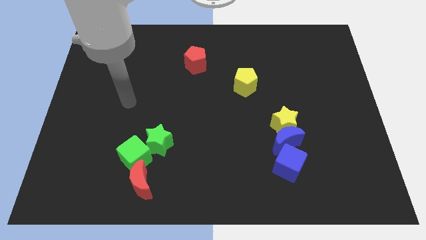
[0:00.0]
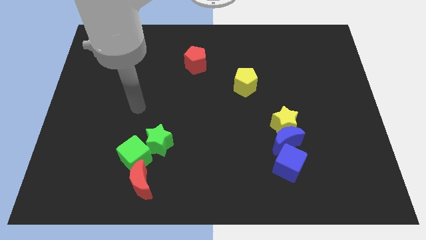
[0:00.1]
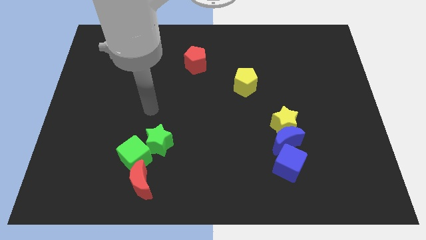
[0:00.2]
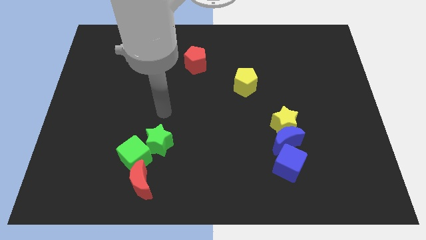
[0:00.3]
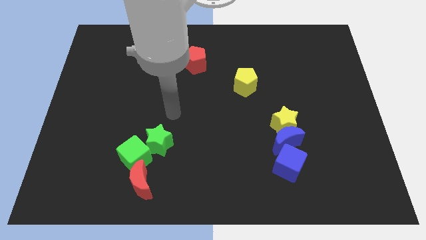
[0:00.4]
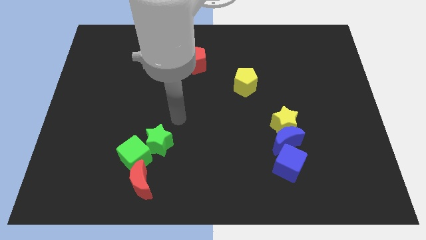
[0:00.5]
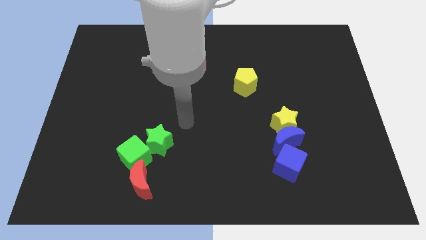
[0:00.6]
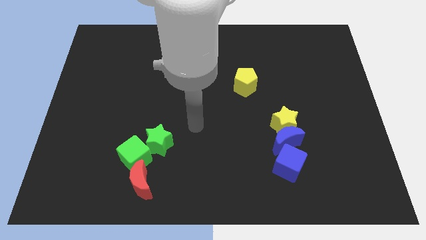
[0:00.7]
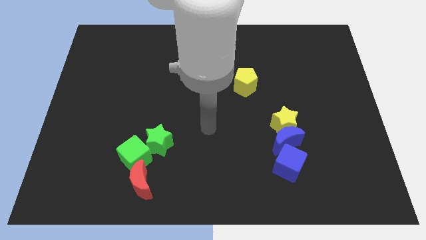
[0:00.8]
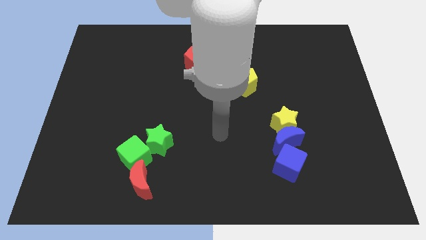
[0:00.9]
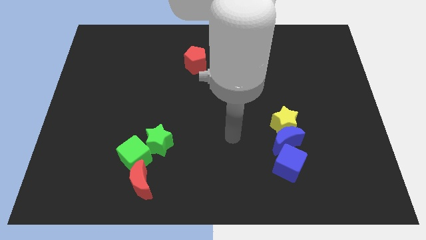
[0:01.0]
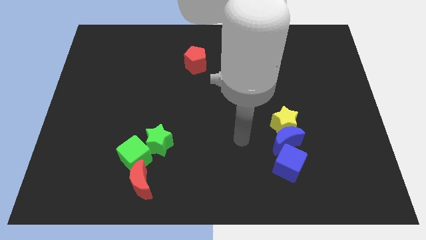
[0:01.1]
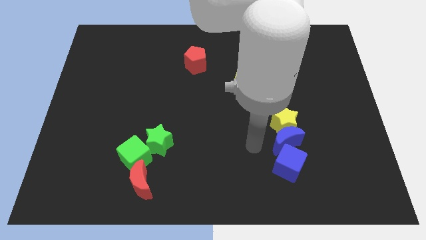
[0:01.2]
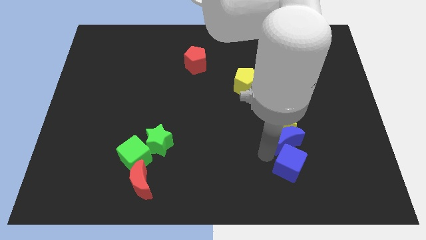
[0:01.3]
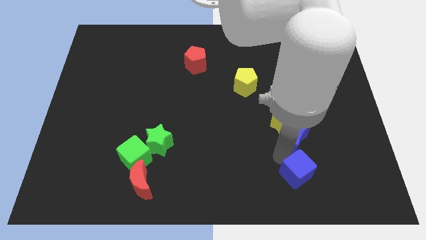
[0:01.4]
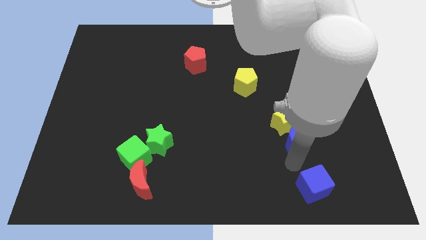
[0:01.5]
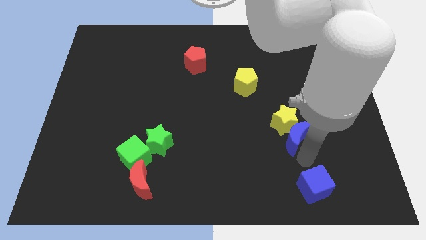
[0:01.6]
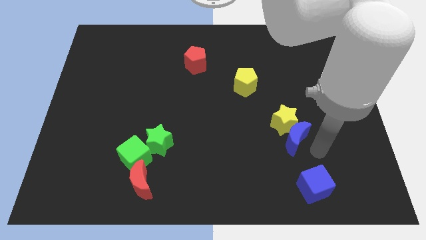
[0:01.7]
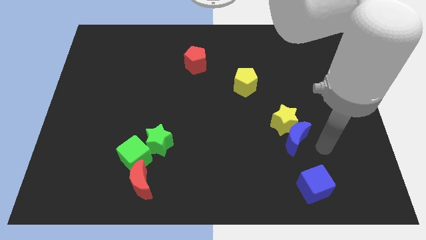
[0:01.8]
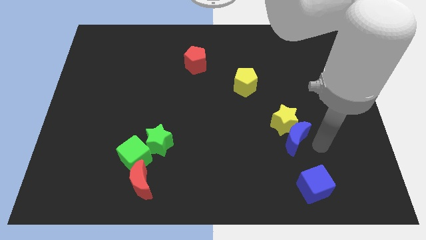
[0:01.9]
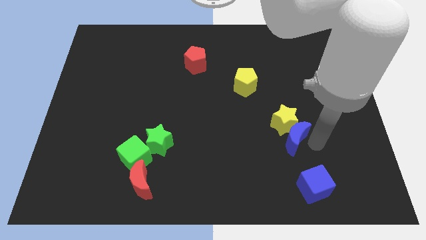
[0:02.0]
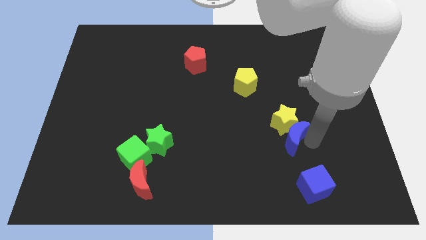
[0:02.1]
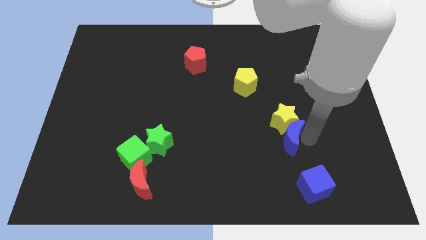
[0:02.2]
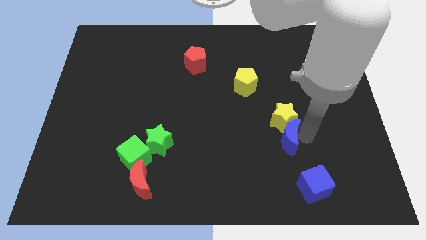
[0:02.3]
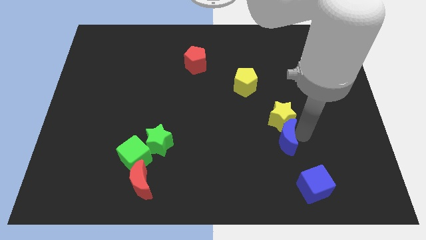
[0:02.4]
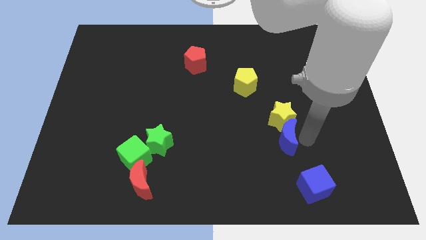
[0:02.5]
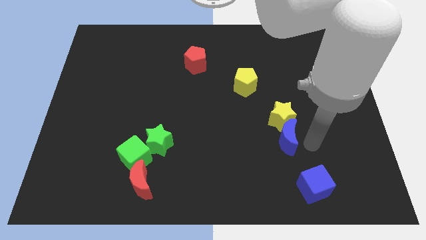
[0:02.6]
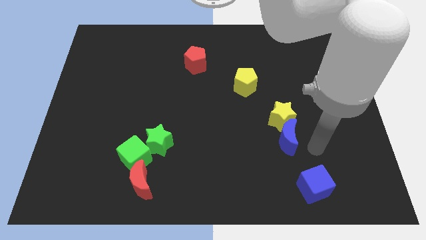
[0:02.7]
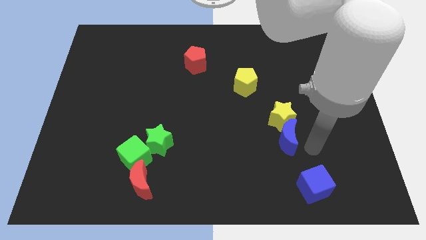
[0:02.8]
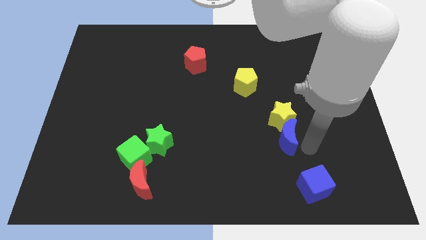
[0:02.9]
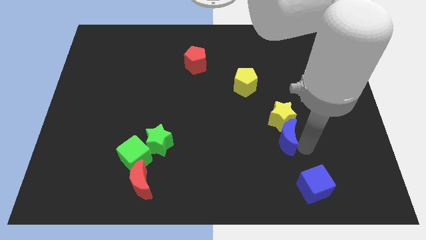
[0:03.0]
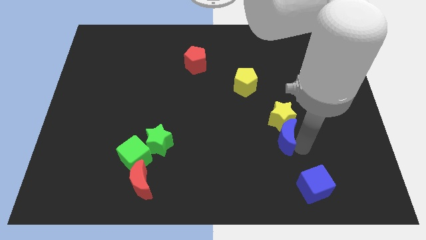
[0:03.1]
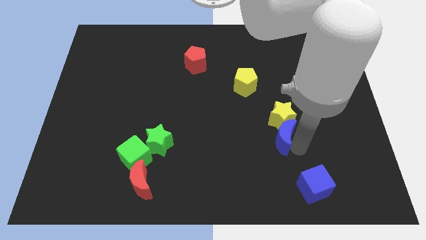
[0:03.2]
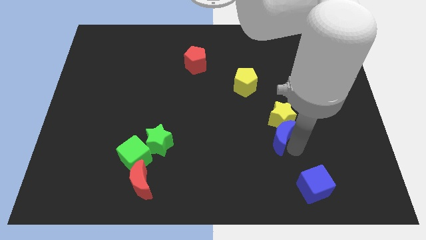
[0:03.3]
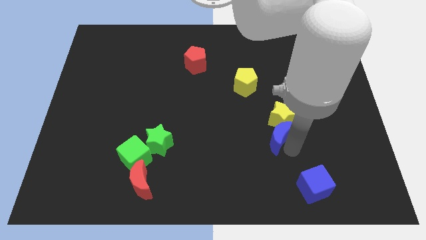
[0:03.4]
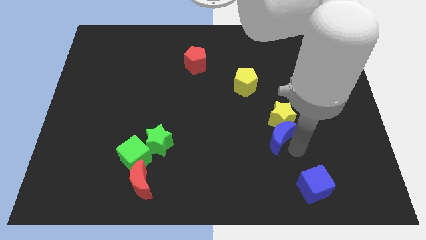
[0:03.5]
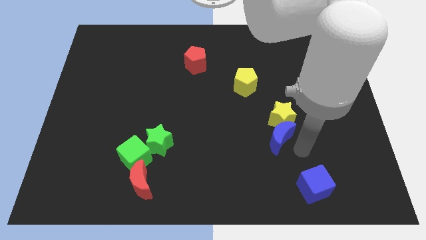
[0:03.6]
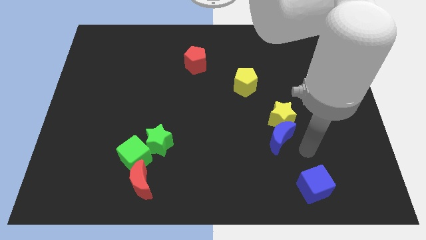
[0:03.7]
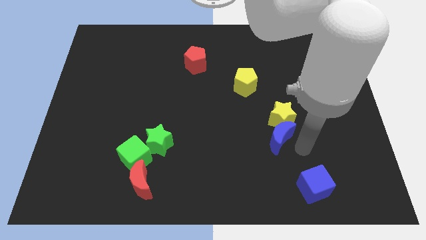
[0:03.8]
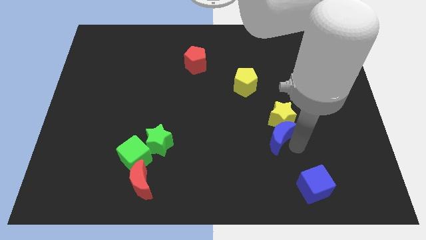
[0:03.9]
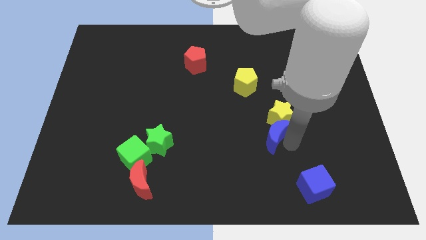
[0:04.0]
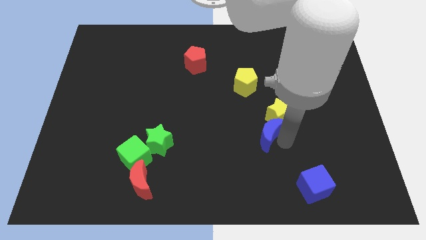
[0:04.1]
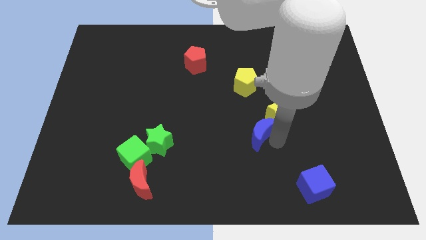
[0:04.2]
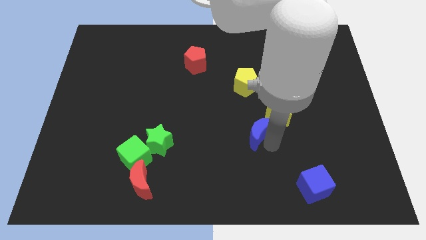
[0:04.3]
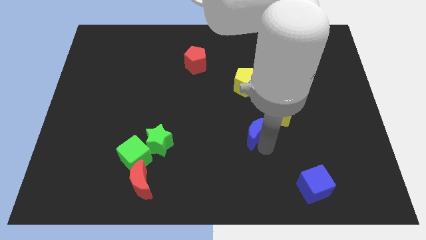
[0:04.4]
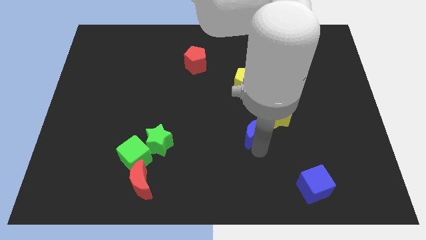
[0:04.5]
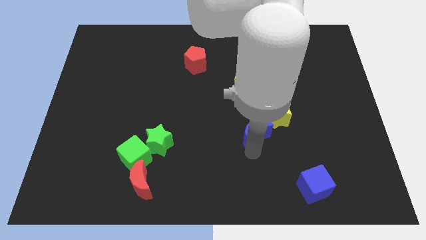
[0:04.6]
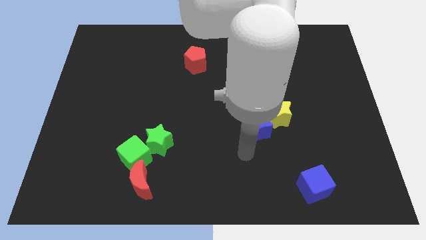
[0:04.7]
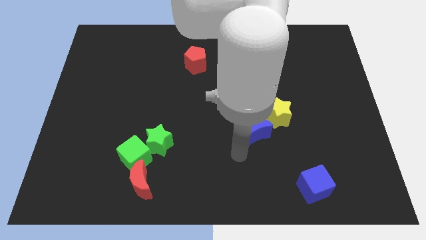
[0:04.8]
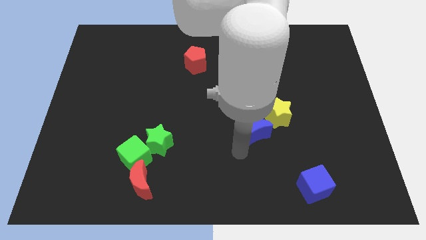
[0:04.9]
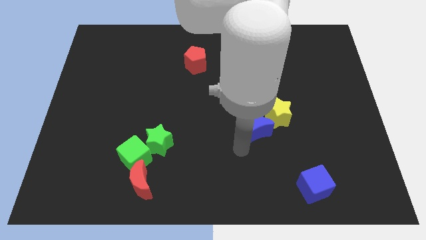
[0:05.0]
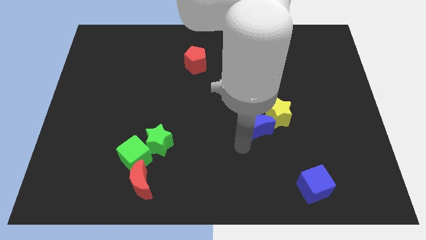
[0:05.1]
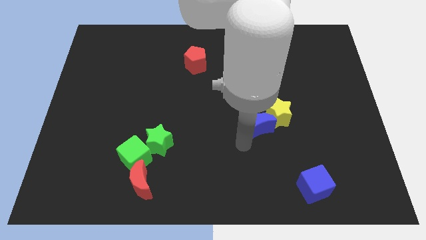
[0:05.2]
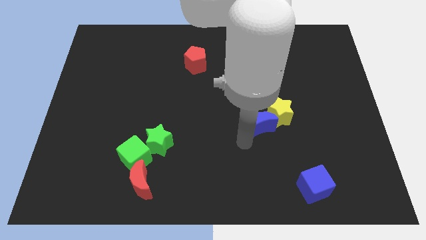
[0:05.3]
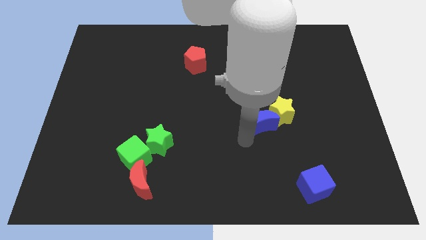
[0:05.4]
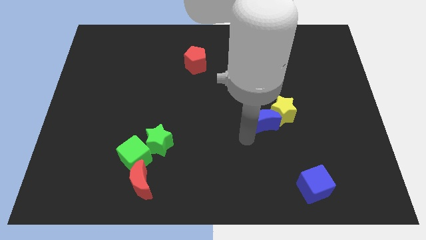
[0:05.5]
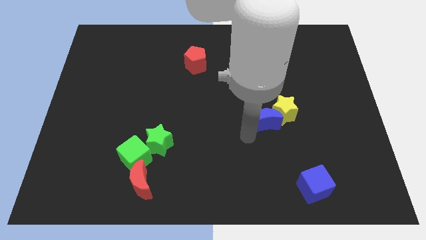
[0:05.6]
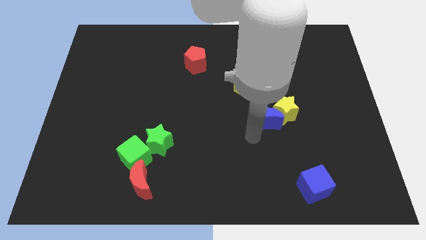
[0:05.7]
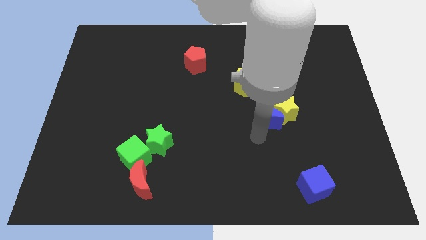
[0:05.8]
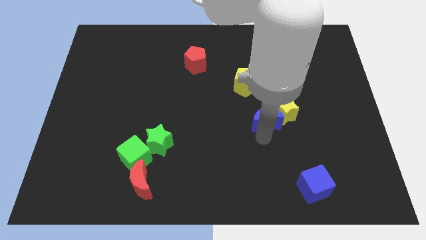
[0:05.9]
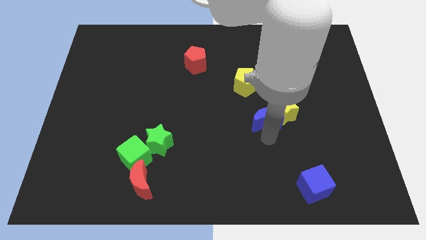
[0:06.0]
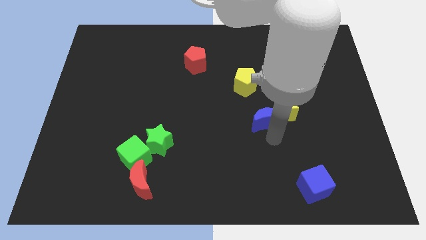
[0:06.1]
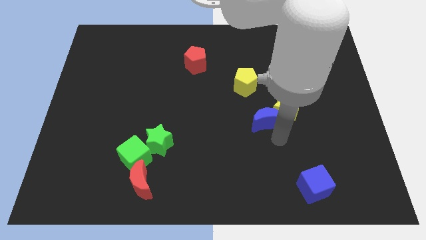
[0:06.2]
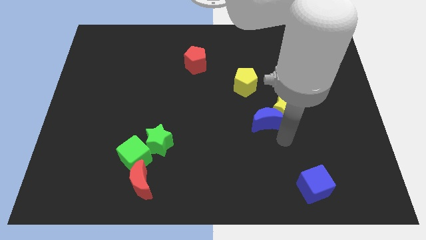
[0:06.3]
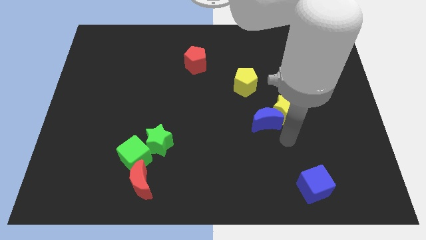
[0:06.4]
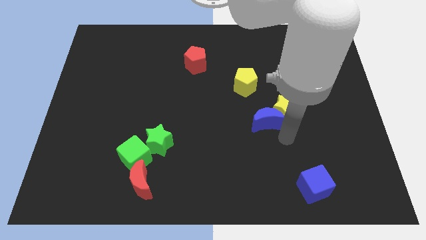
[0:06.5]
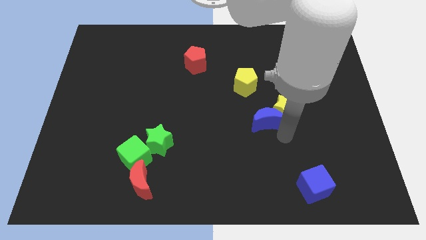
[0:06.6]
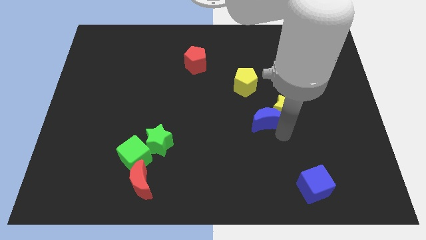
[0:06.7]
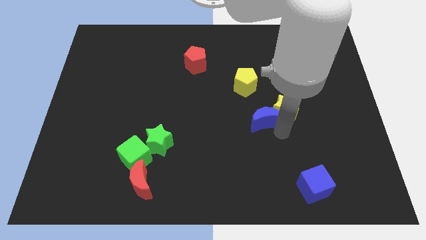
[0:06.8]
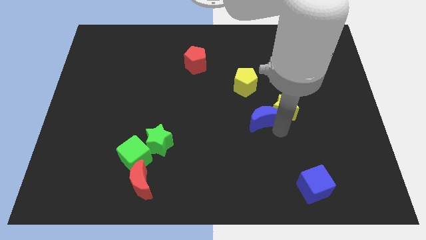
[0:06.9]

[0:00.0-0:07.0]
separate the blue moon from the yellow star and blue cube

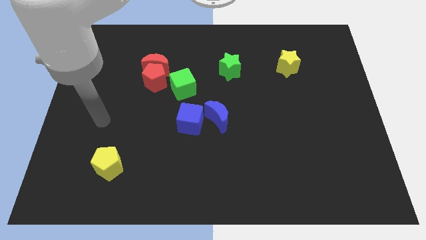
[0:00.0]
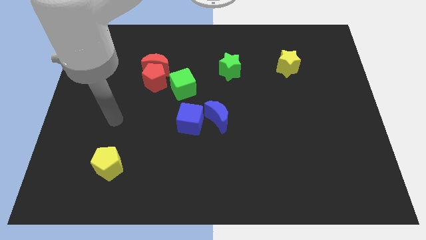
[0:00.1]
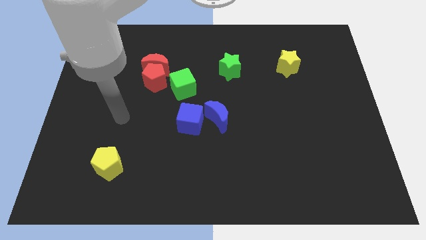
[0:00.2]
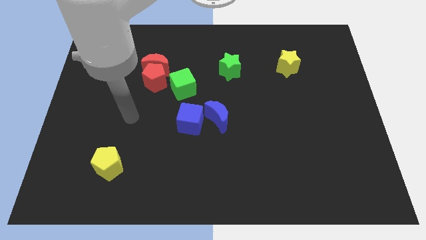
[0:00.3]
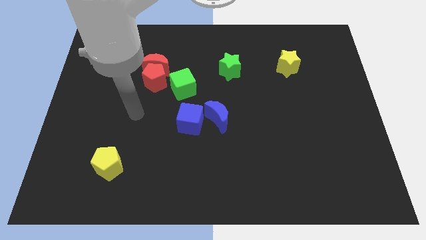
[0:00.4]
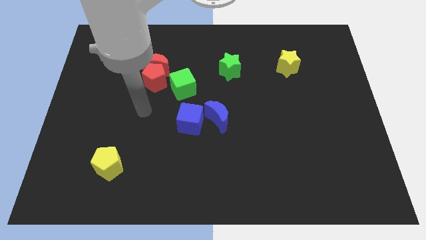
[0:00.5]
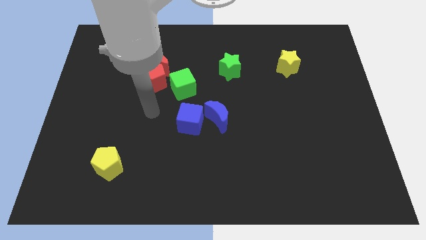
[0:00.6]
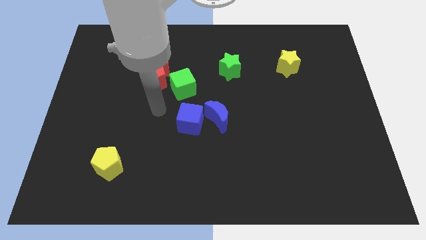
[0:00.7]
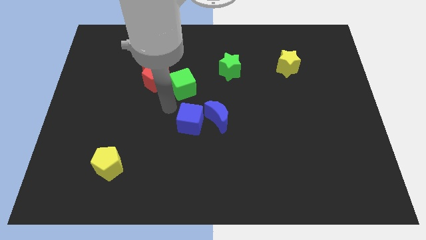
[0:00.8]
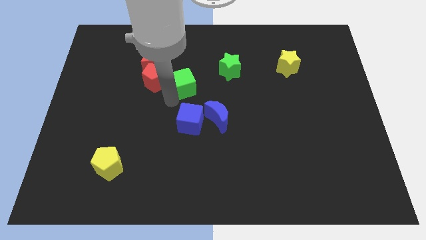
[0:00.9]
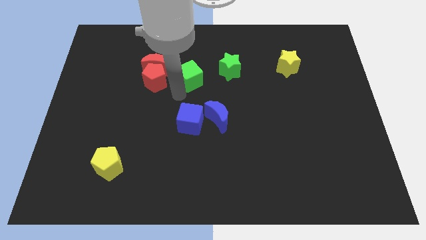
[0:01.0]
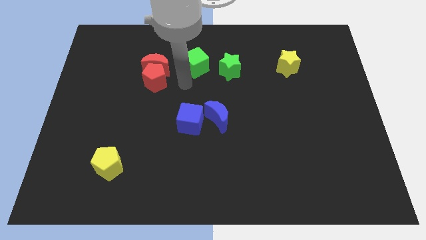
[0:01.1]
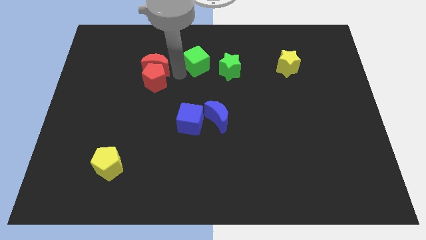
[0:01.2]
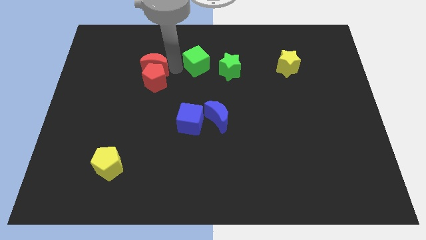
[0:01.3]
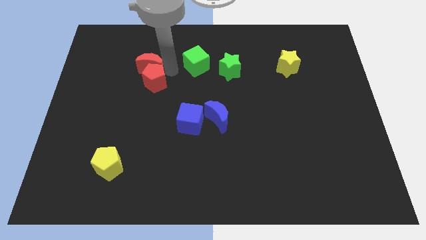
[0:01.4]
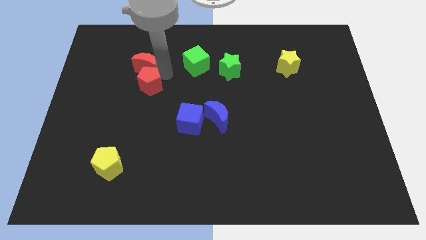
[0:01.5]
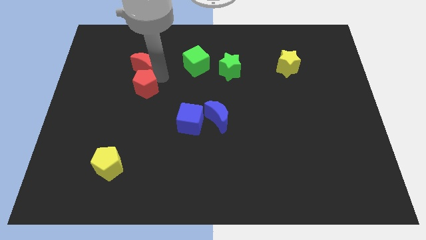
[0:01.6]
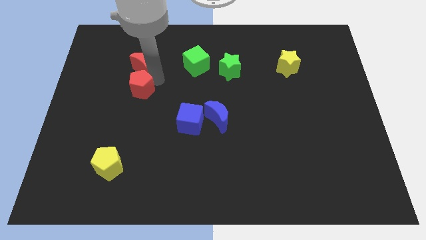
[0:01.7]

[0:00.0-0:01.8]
pull the red pentagon apart from the red moon and green cube

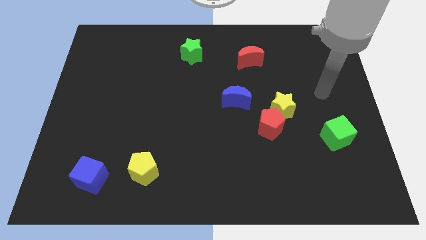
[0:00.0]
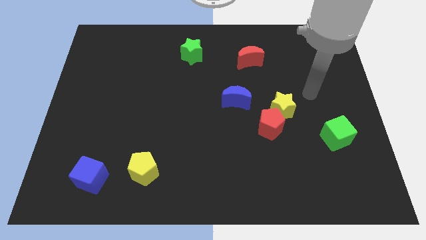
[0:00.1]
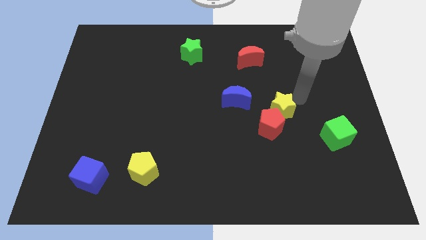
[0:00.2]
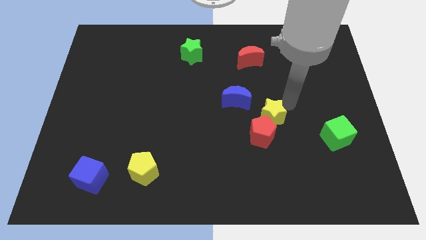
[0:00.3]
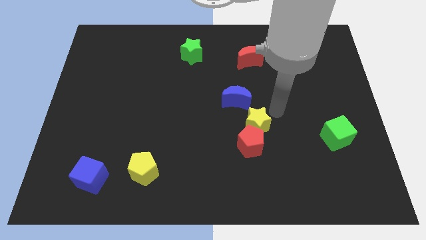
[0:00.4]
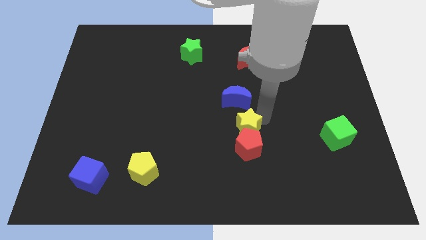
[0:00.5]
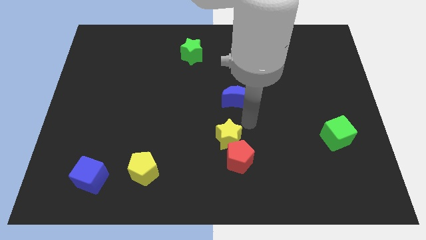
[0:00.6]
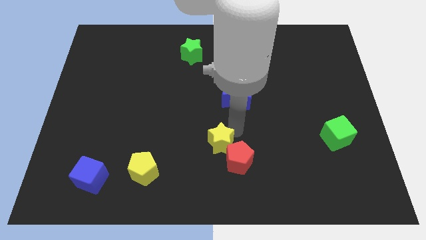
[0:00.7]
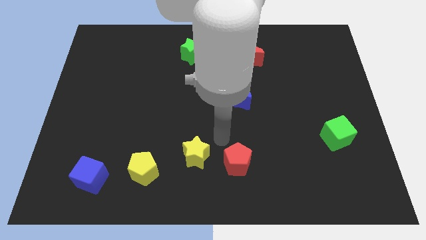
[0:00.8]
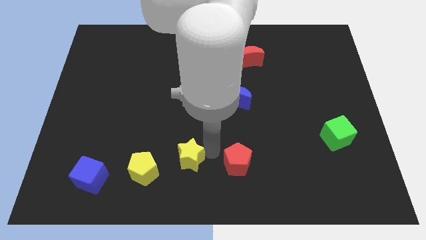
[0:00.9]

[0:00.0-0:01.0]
separate the red pentagon from the yellow star
